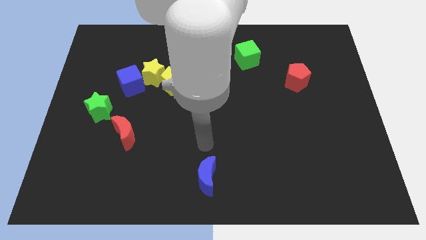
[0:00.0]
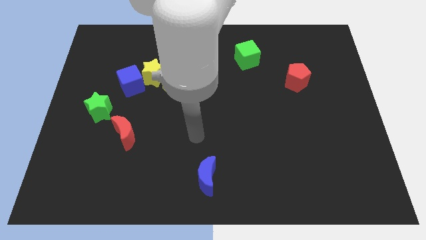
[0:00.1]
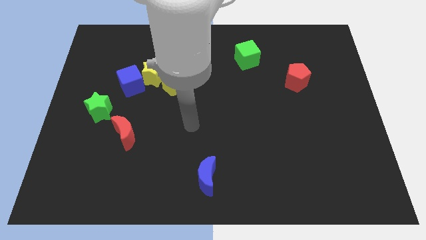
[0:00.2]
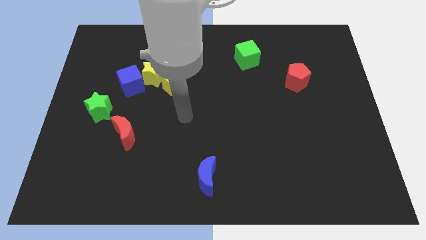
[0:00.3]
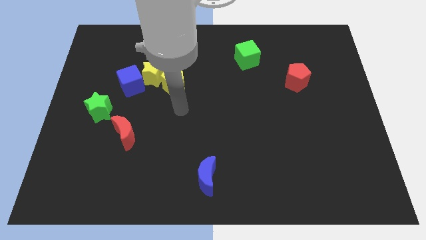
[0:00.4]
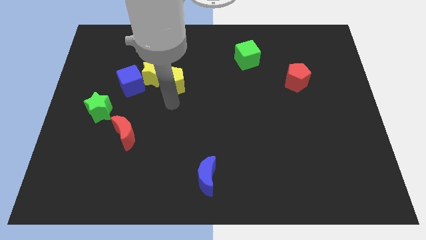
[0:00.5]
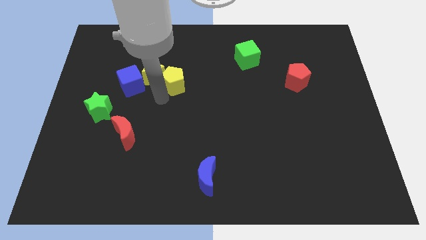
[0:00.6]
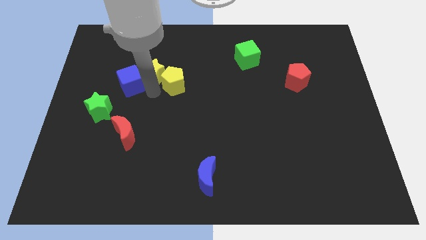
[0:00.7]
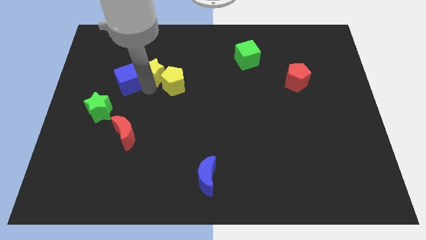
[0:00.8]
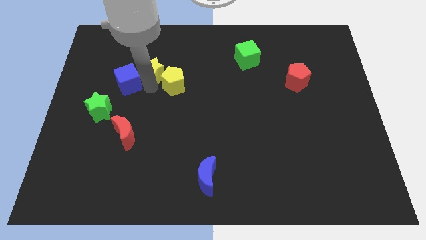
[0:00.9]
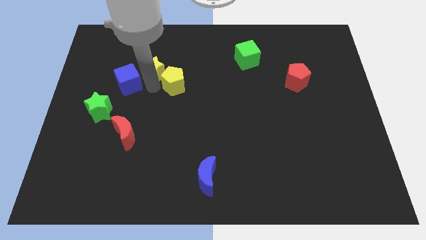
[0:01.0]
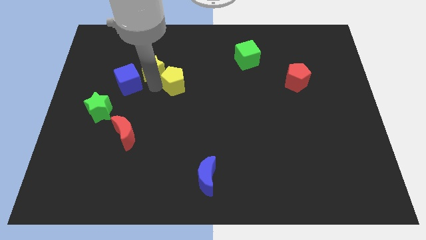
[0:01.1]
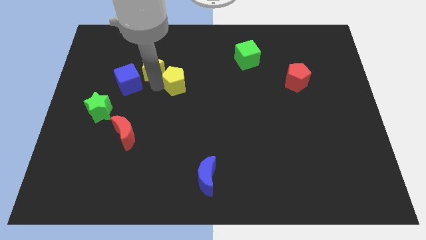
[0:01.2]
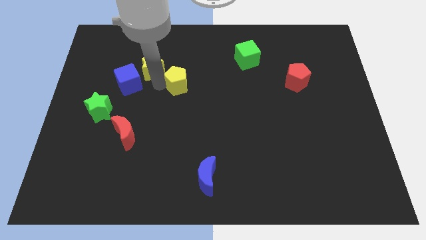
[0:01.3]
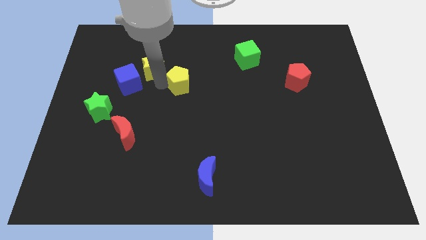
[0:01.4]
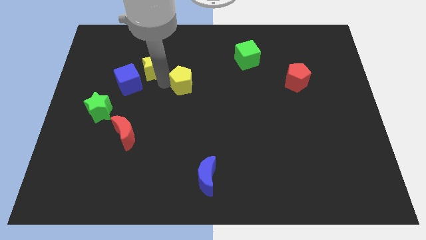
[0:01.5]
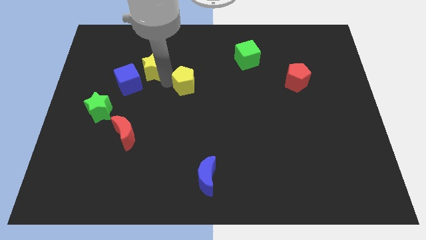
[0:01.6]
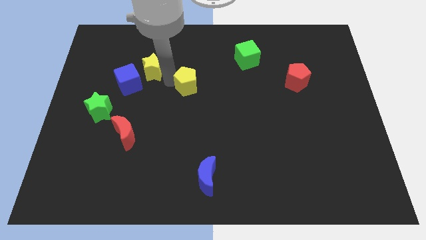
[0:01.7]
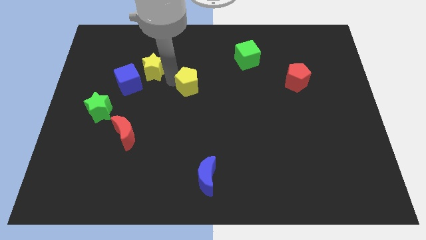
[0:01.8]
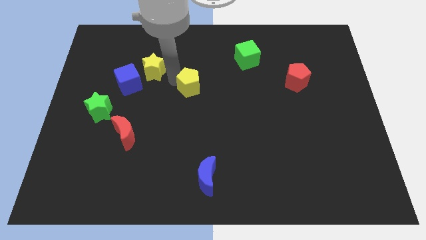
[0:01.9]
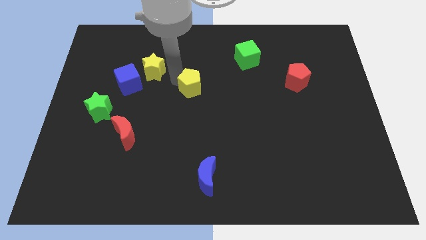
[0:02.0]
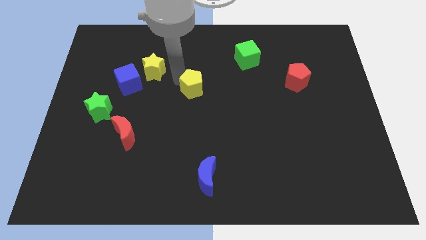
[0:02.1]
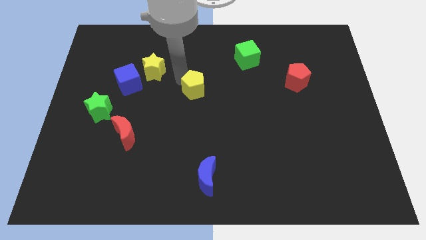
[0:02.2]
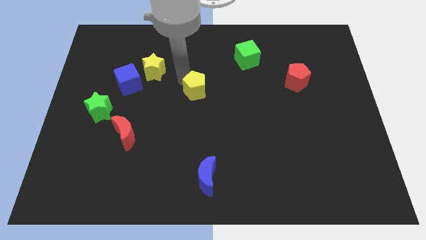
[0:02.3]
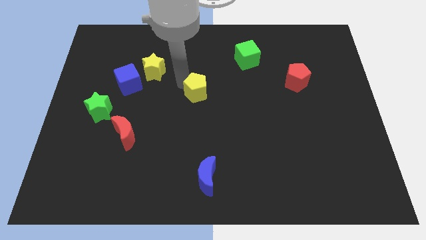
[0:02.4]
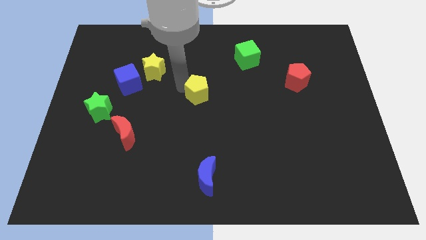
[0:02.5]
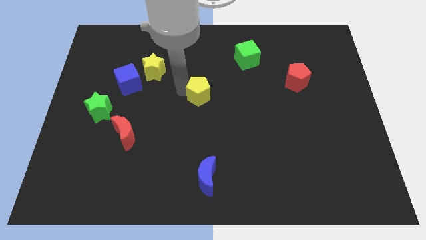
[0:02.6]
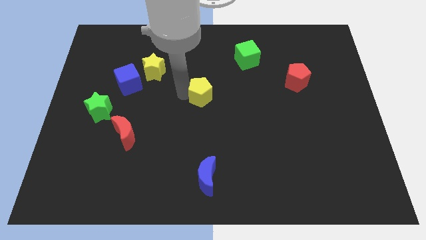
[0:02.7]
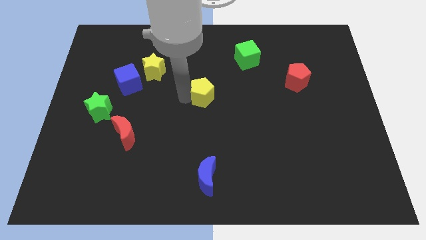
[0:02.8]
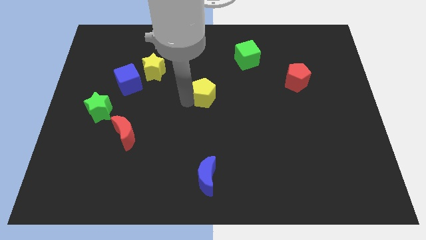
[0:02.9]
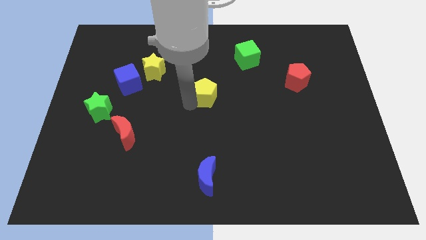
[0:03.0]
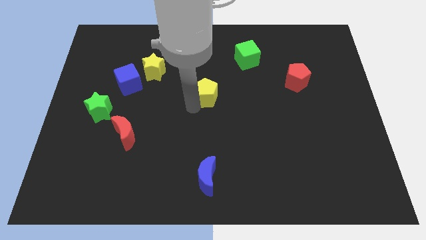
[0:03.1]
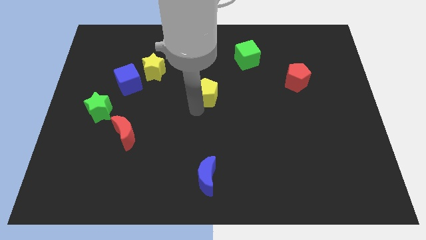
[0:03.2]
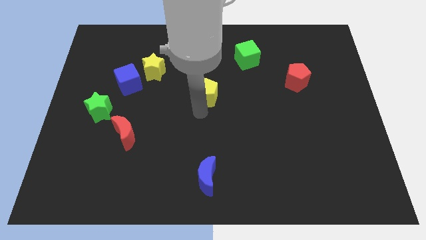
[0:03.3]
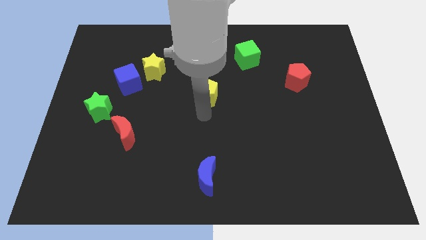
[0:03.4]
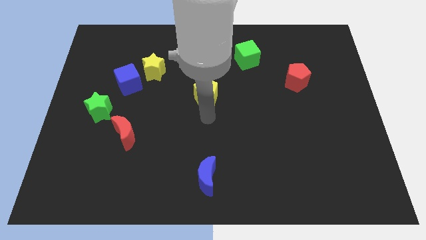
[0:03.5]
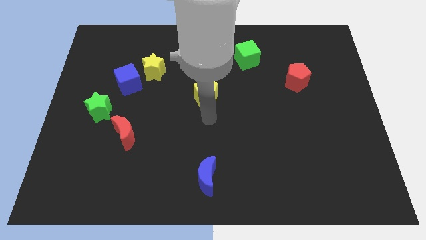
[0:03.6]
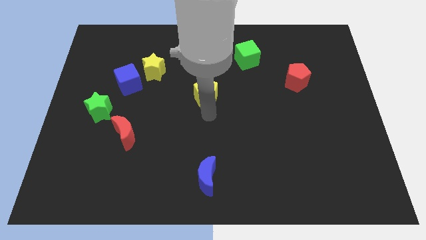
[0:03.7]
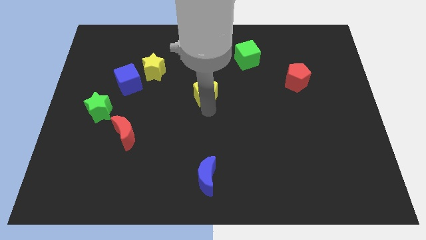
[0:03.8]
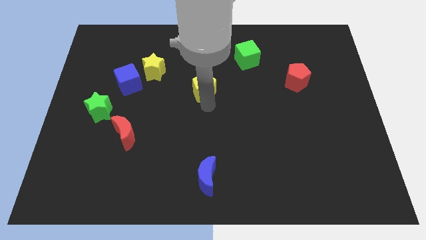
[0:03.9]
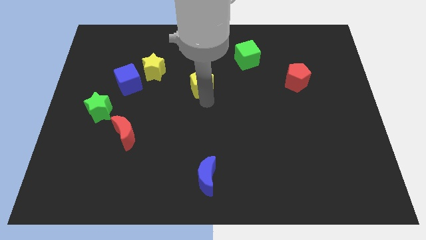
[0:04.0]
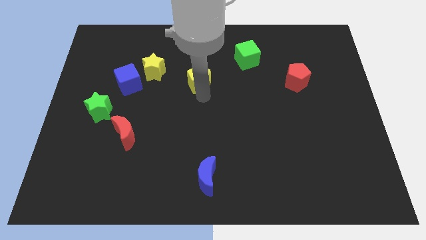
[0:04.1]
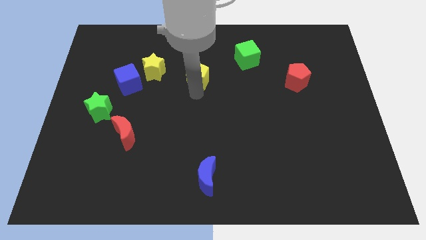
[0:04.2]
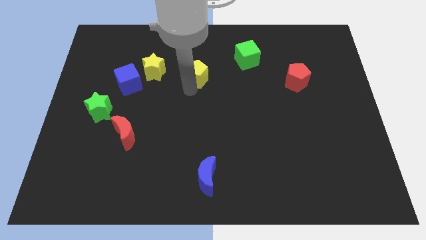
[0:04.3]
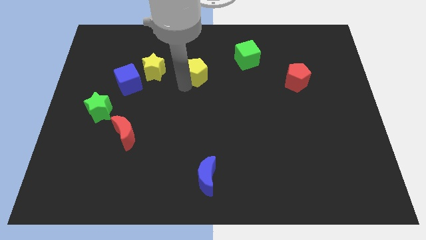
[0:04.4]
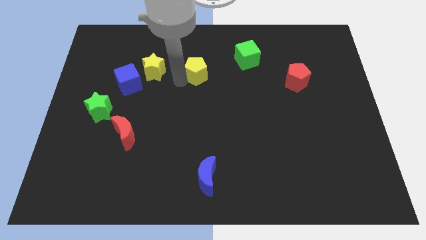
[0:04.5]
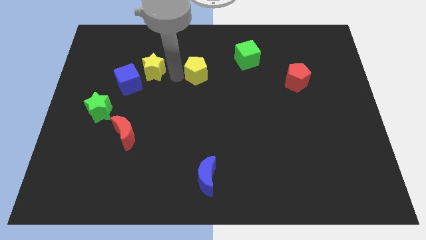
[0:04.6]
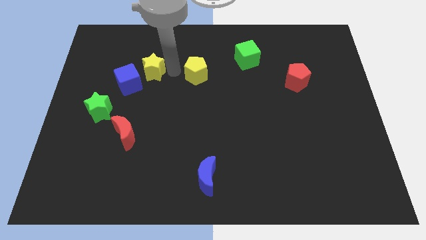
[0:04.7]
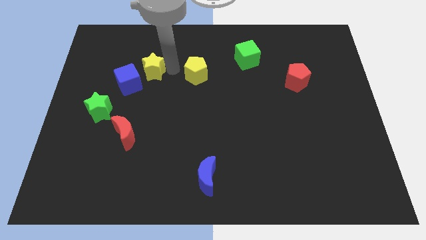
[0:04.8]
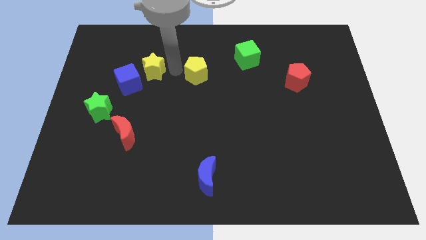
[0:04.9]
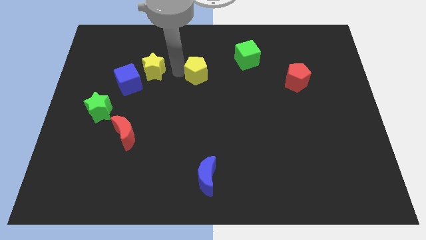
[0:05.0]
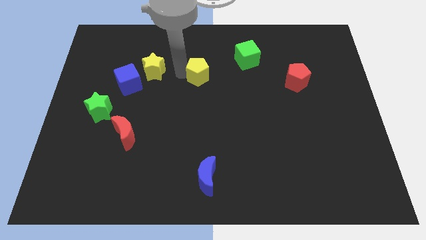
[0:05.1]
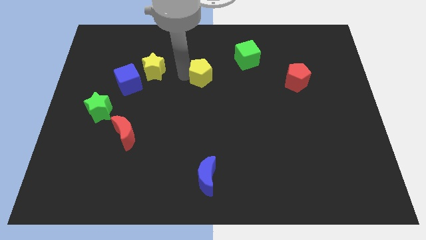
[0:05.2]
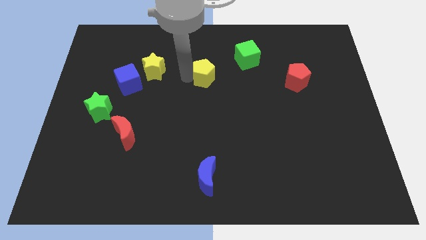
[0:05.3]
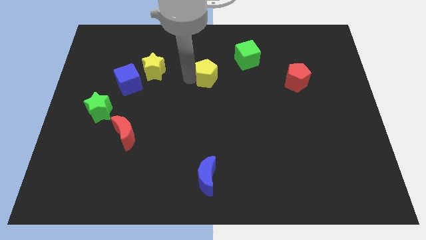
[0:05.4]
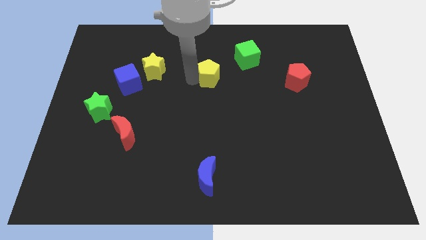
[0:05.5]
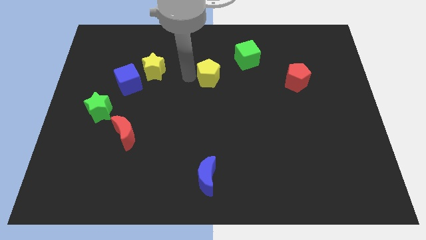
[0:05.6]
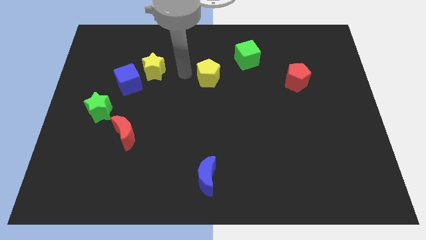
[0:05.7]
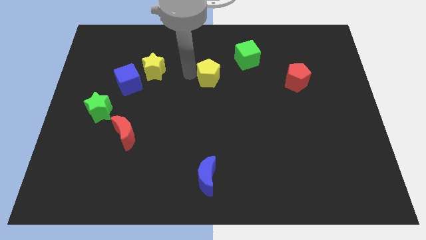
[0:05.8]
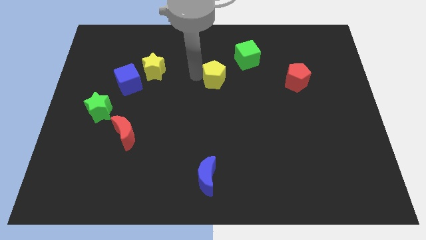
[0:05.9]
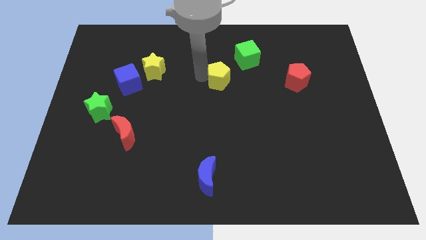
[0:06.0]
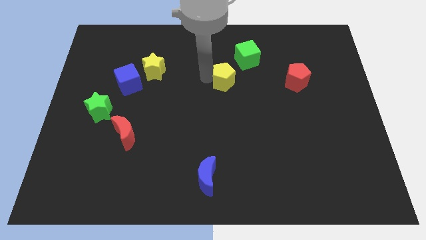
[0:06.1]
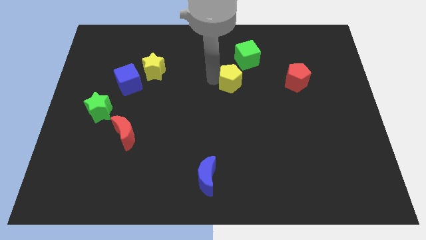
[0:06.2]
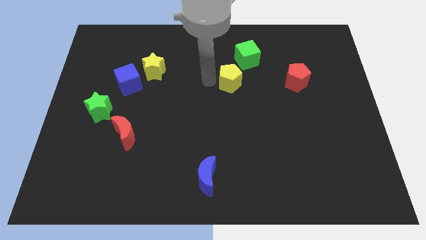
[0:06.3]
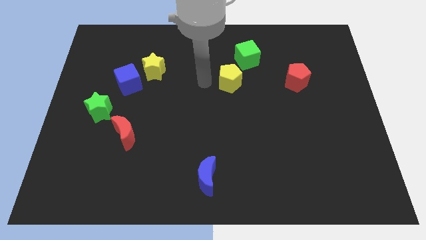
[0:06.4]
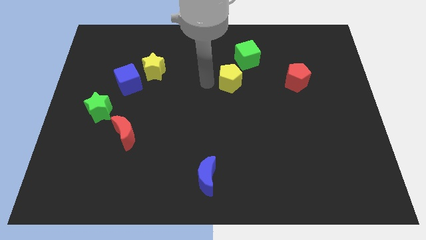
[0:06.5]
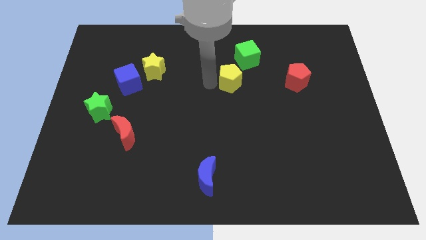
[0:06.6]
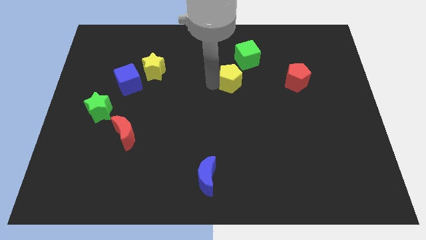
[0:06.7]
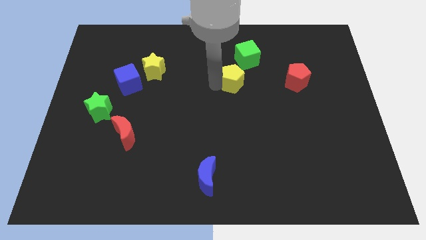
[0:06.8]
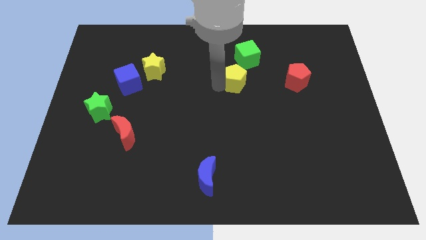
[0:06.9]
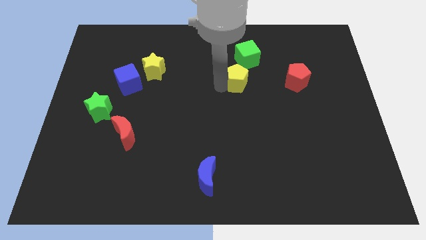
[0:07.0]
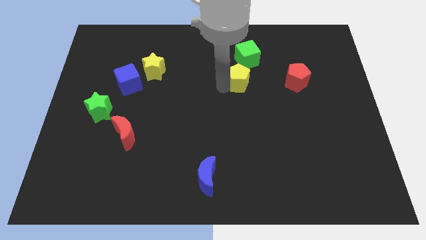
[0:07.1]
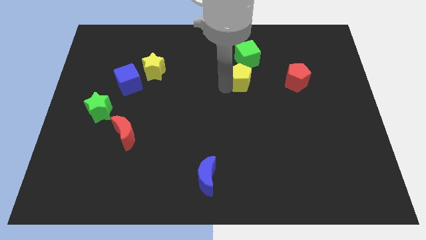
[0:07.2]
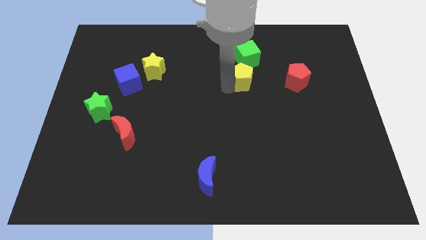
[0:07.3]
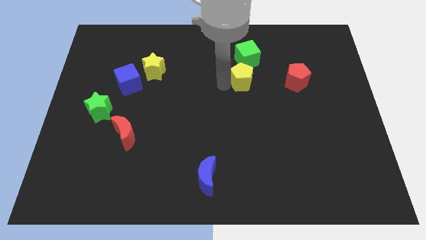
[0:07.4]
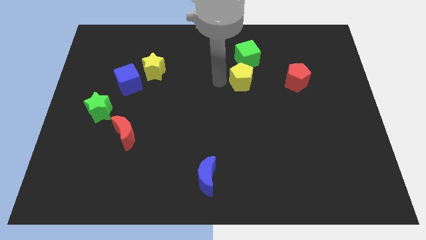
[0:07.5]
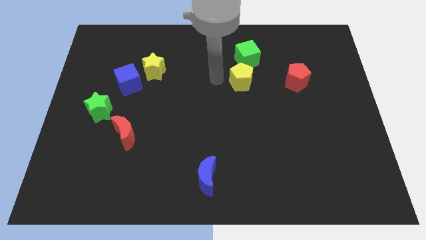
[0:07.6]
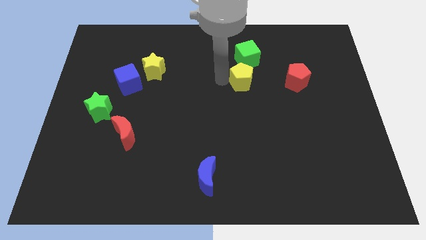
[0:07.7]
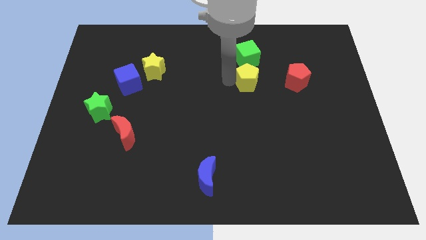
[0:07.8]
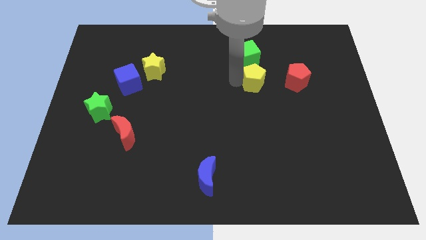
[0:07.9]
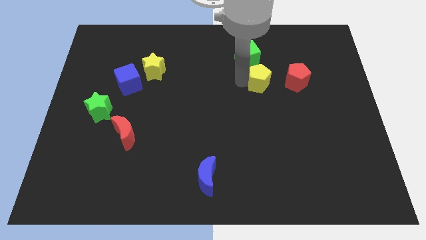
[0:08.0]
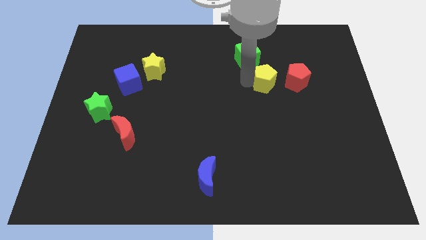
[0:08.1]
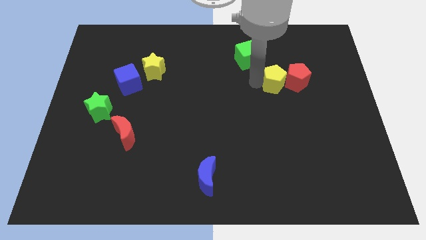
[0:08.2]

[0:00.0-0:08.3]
slide the yellow pentagon towards the red pentagon
